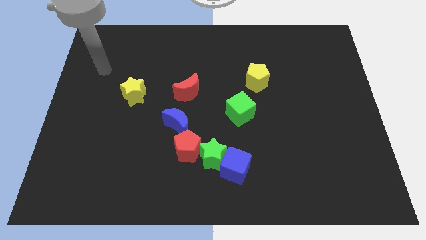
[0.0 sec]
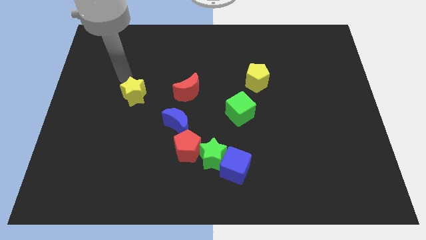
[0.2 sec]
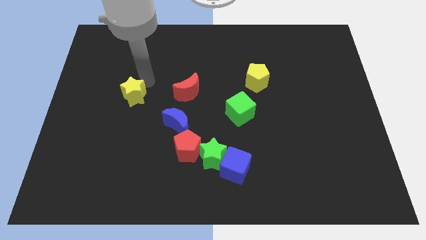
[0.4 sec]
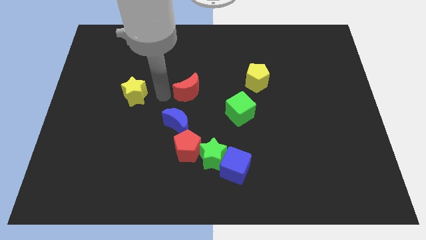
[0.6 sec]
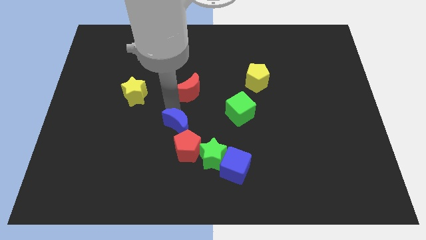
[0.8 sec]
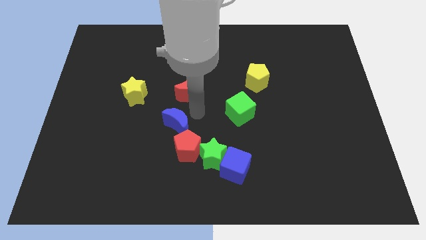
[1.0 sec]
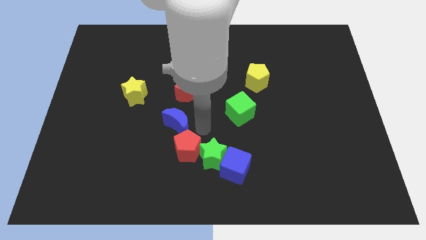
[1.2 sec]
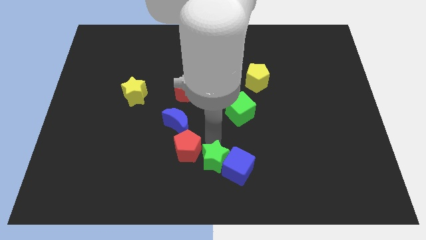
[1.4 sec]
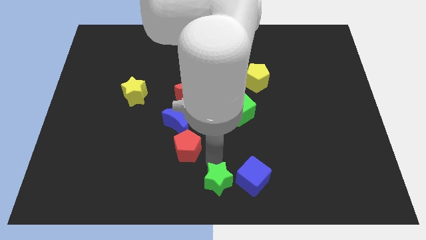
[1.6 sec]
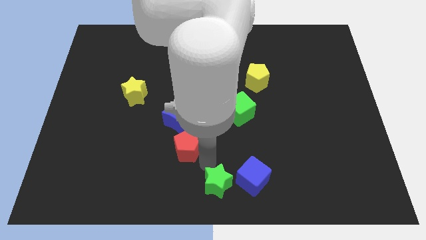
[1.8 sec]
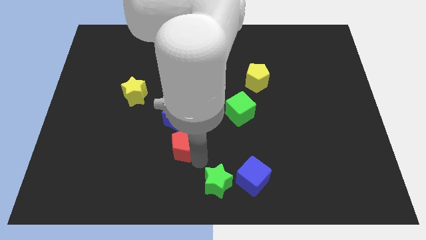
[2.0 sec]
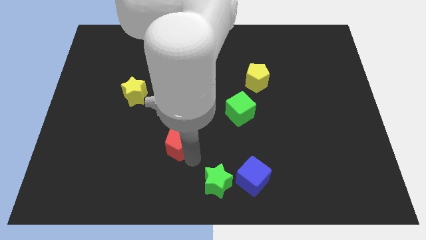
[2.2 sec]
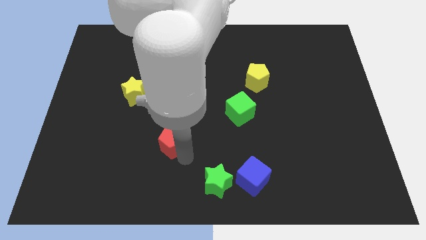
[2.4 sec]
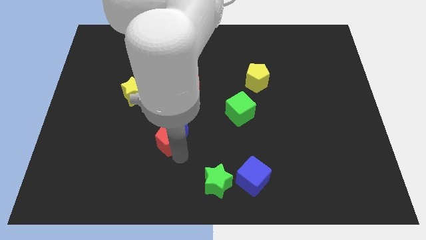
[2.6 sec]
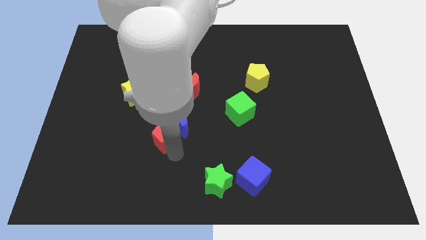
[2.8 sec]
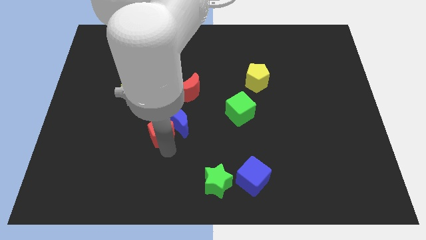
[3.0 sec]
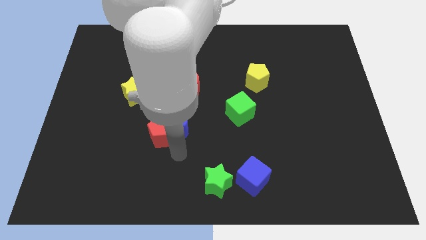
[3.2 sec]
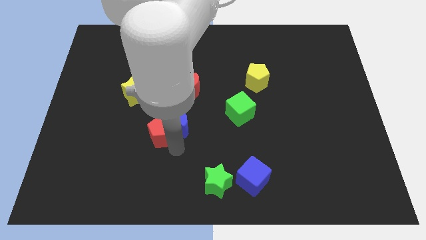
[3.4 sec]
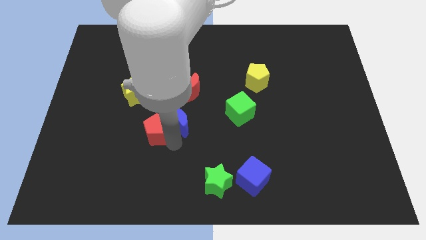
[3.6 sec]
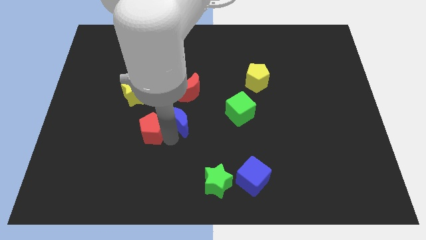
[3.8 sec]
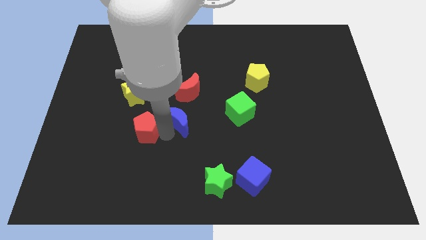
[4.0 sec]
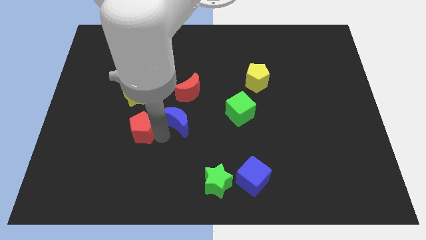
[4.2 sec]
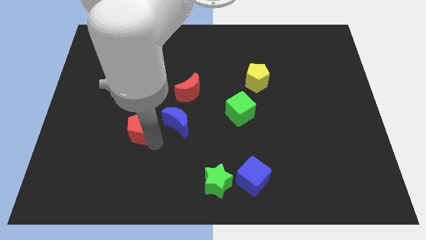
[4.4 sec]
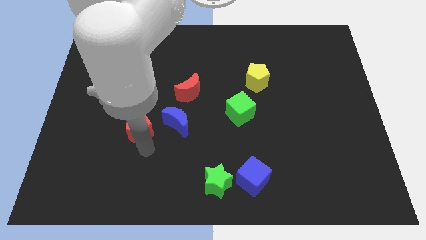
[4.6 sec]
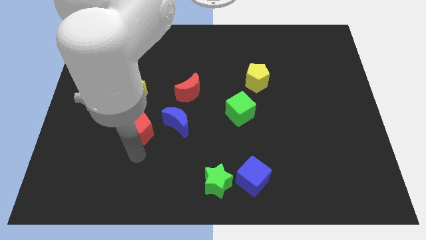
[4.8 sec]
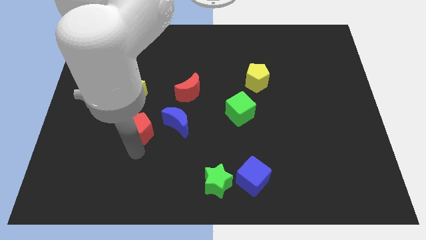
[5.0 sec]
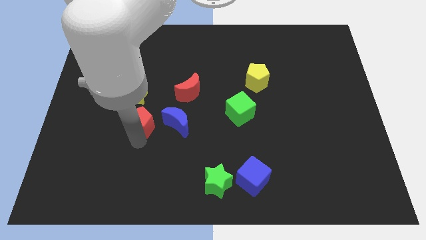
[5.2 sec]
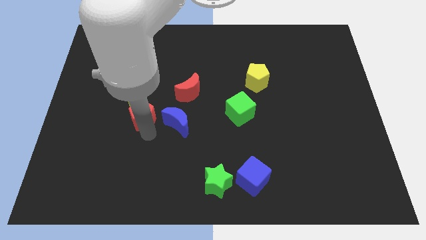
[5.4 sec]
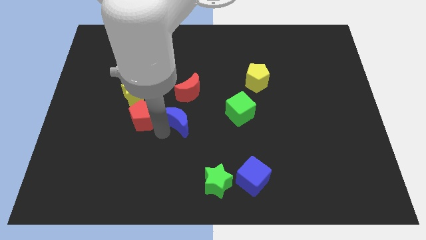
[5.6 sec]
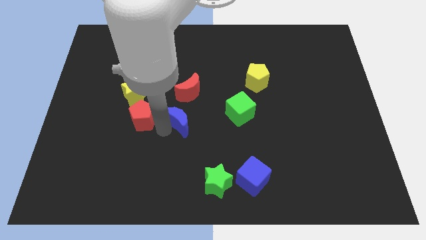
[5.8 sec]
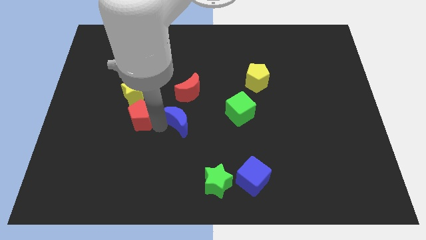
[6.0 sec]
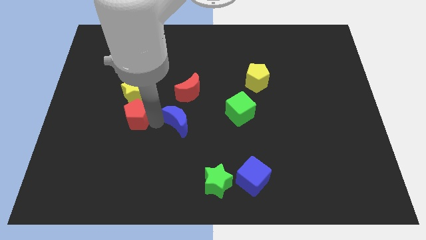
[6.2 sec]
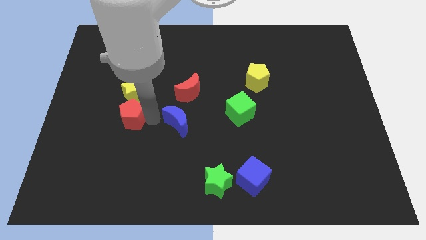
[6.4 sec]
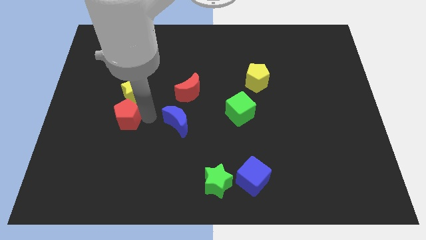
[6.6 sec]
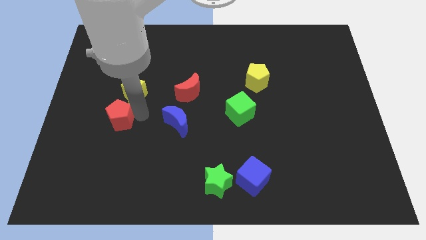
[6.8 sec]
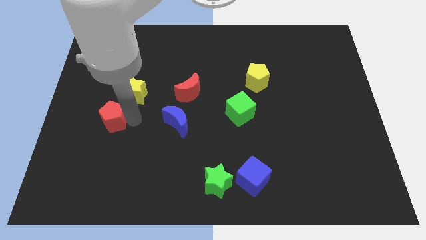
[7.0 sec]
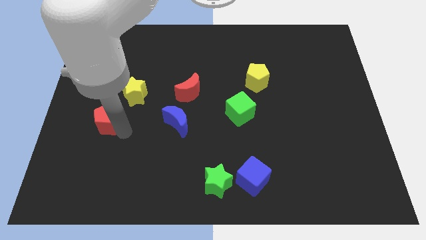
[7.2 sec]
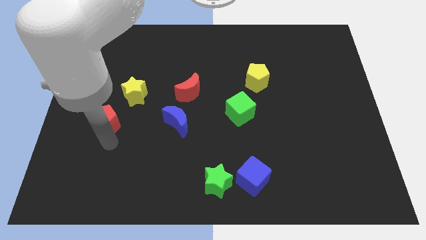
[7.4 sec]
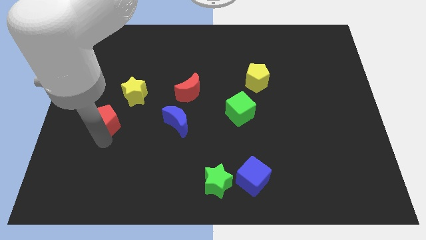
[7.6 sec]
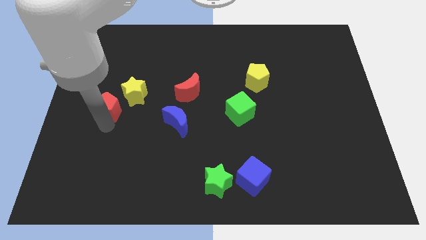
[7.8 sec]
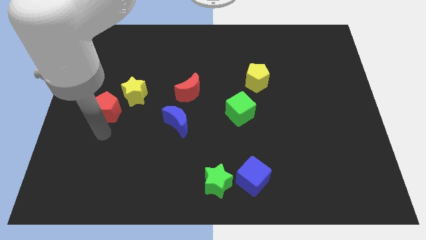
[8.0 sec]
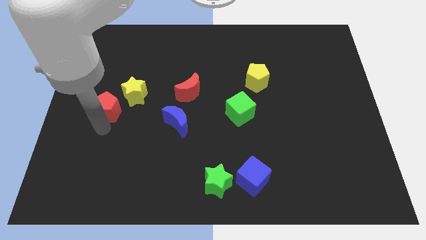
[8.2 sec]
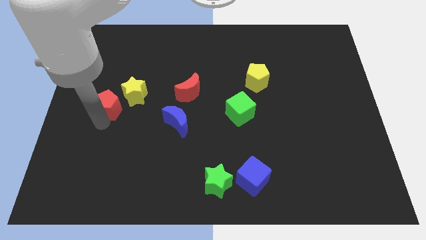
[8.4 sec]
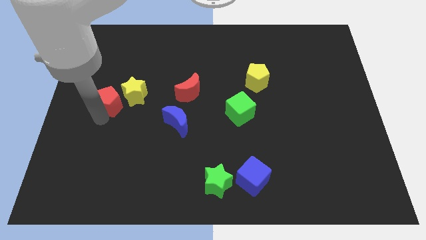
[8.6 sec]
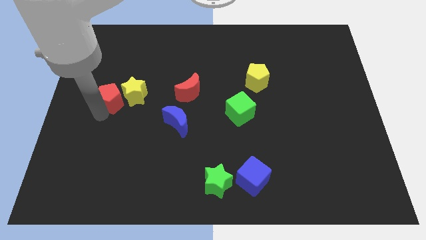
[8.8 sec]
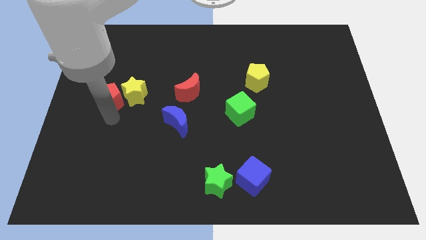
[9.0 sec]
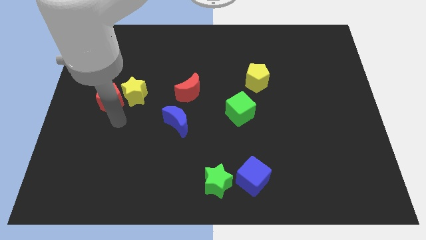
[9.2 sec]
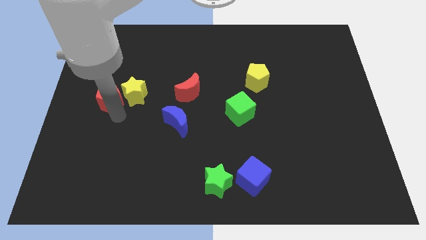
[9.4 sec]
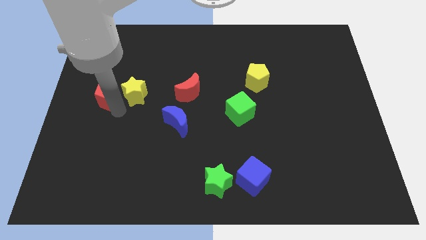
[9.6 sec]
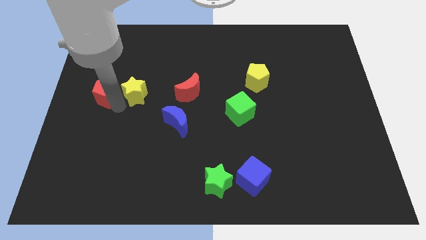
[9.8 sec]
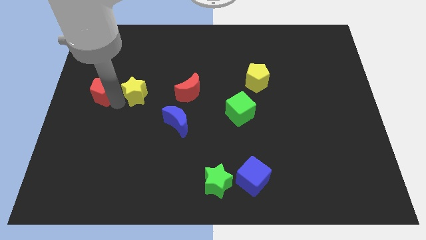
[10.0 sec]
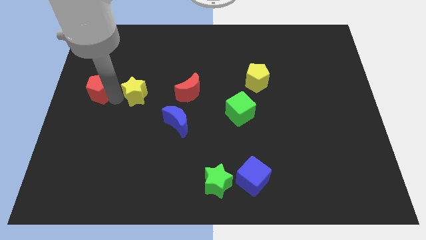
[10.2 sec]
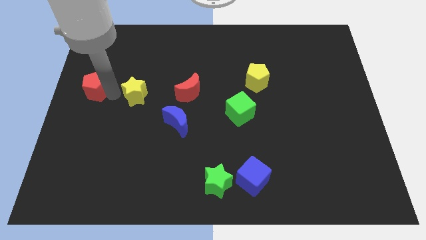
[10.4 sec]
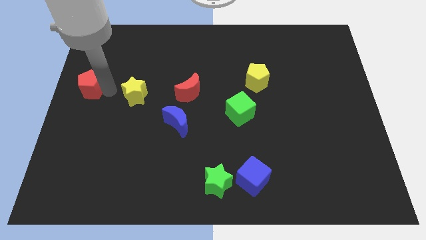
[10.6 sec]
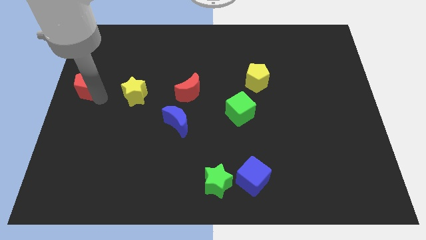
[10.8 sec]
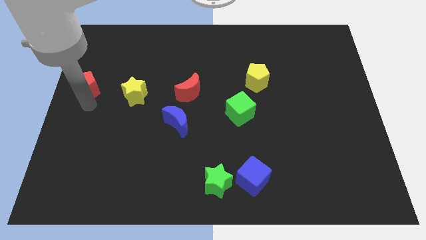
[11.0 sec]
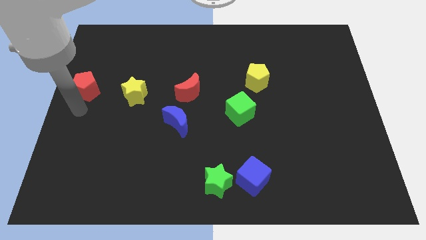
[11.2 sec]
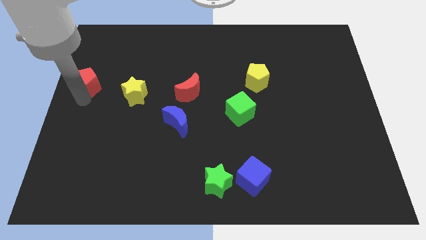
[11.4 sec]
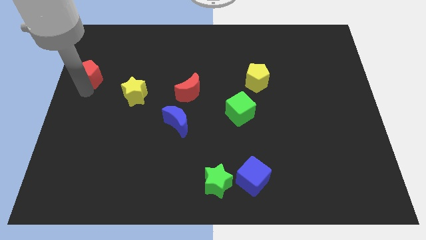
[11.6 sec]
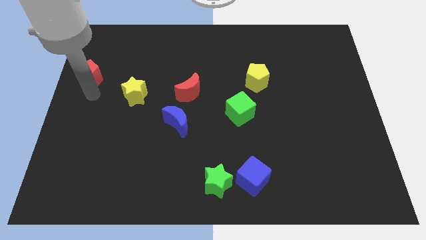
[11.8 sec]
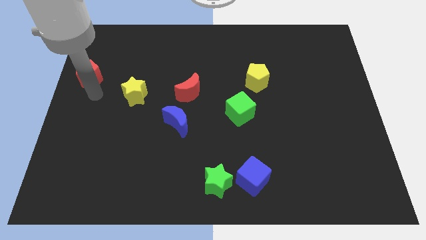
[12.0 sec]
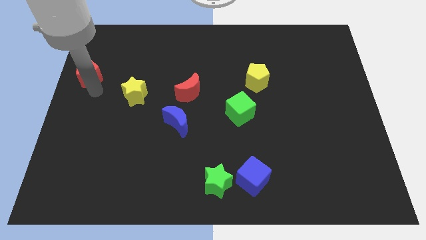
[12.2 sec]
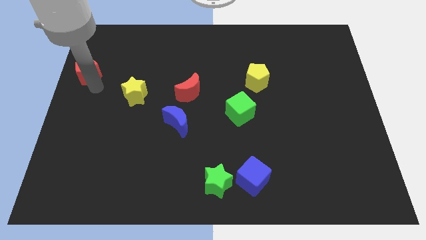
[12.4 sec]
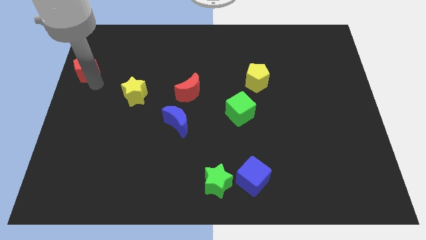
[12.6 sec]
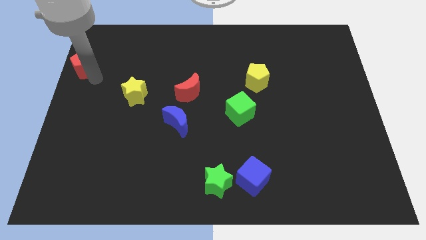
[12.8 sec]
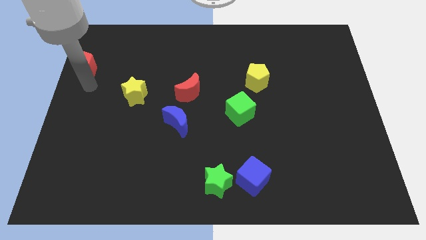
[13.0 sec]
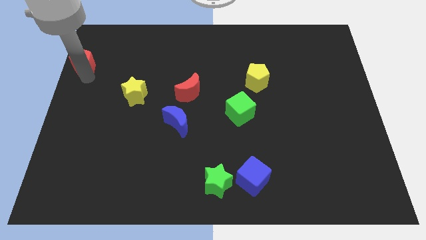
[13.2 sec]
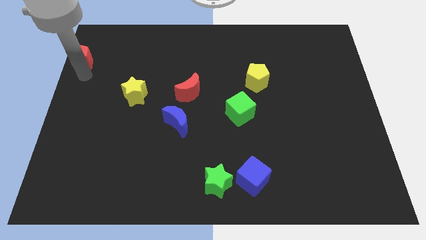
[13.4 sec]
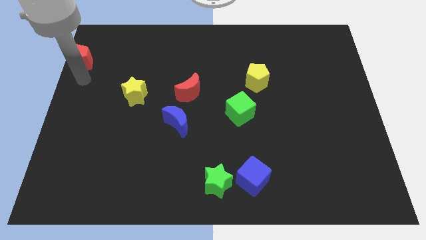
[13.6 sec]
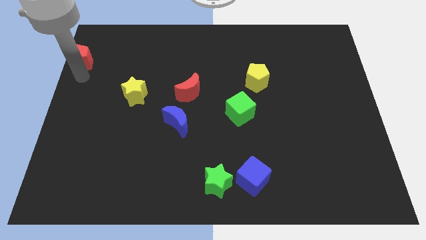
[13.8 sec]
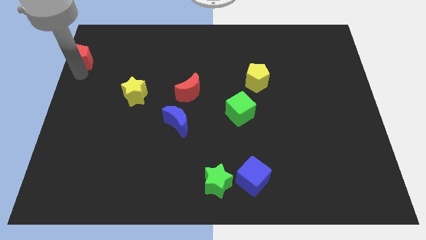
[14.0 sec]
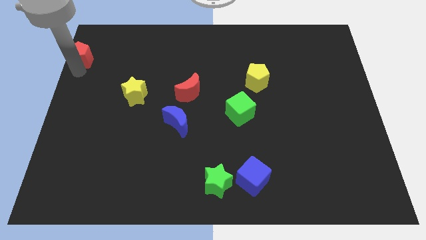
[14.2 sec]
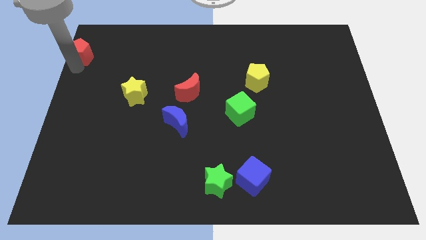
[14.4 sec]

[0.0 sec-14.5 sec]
move the red pentagon to the top left
